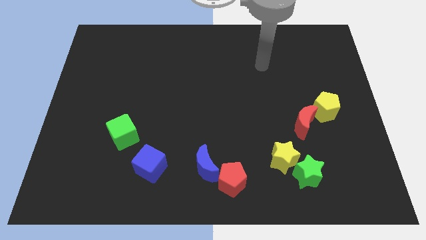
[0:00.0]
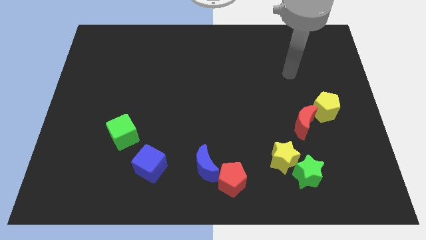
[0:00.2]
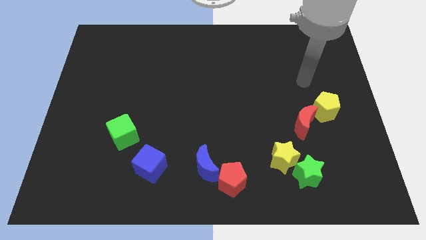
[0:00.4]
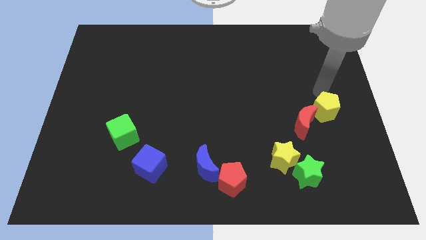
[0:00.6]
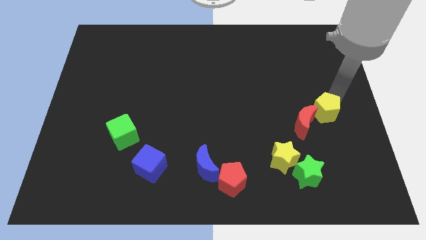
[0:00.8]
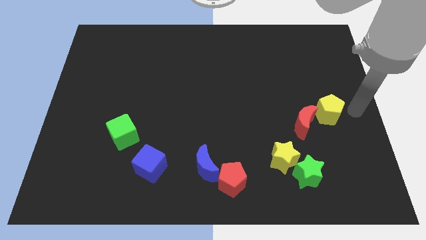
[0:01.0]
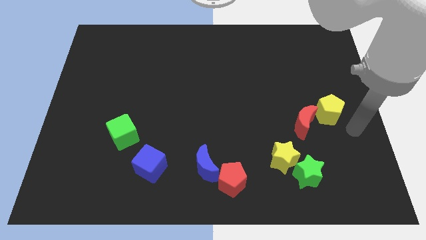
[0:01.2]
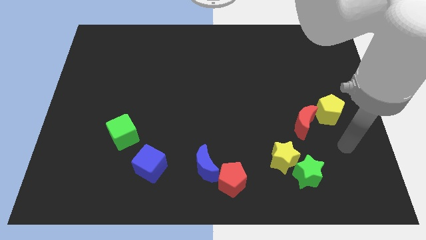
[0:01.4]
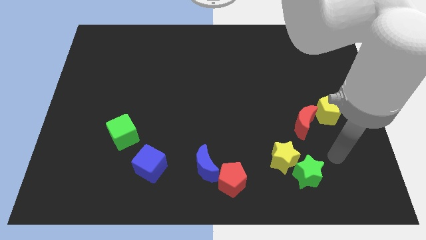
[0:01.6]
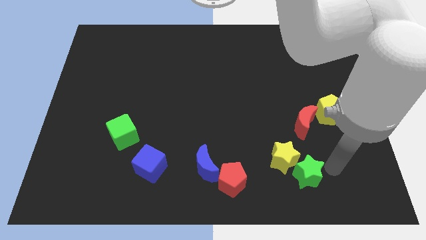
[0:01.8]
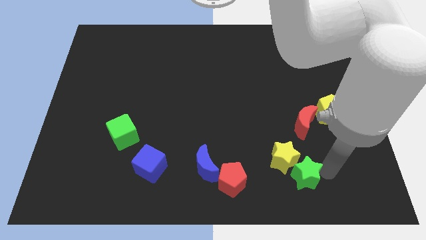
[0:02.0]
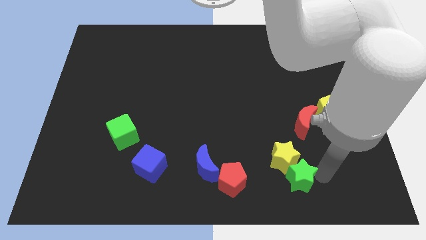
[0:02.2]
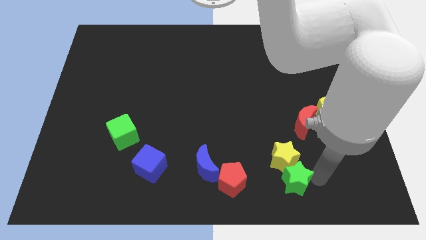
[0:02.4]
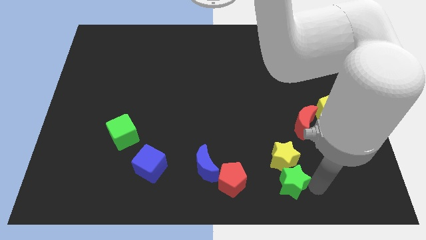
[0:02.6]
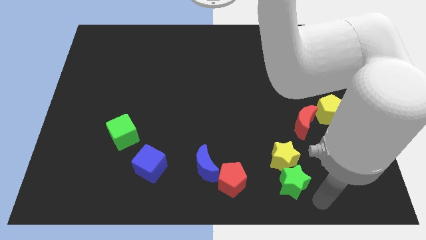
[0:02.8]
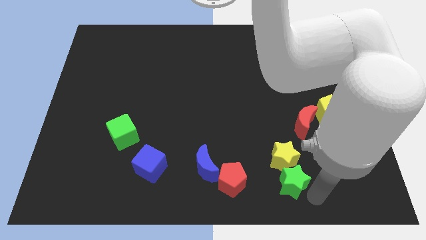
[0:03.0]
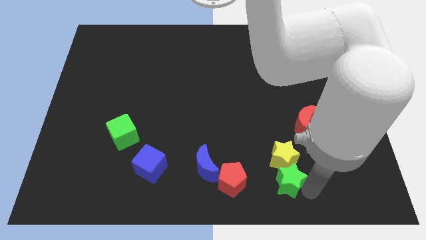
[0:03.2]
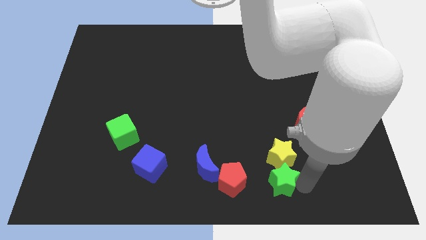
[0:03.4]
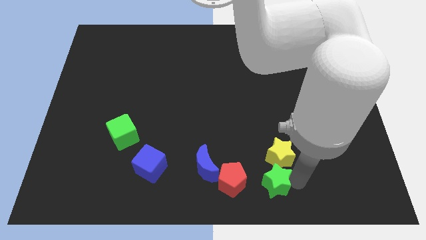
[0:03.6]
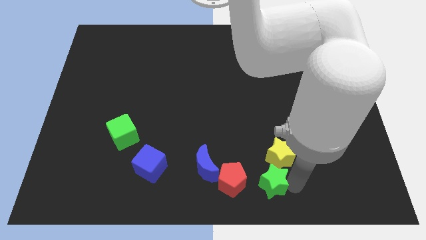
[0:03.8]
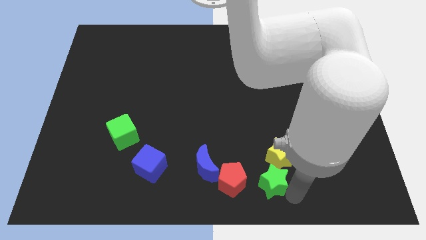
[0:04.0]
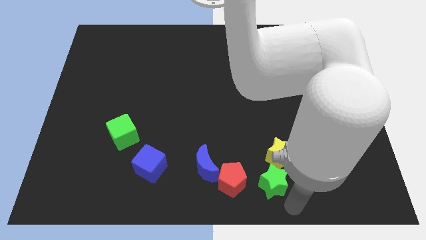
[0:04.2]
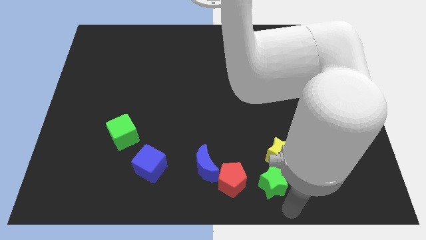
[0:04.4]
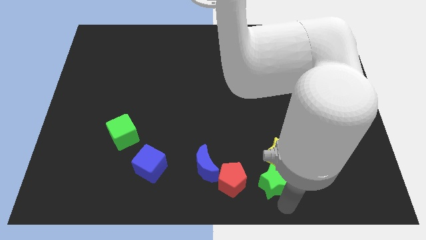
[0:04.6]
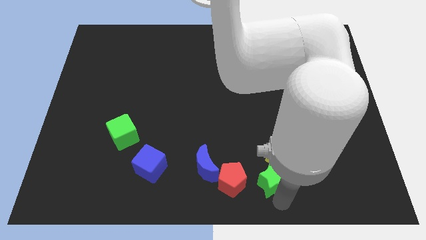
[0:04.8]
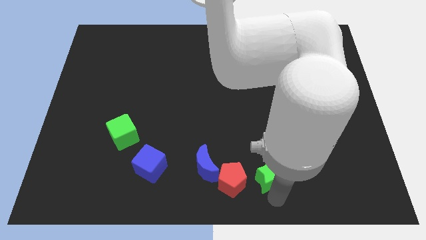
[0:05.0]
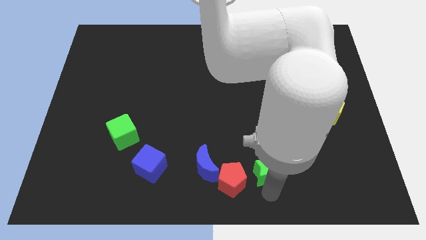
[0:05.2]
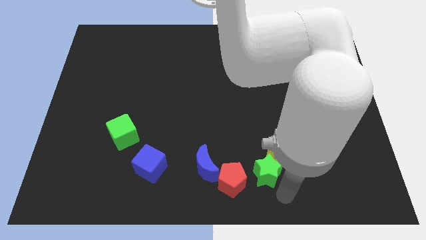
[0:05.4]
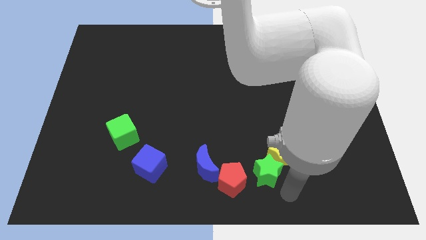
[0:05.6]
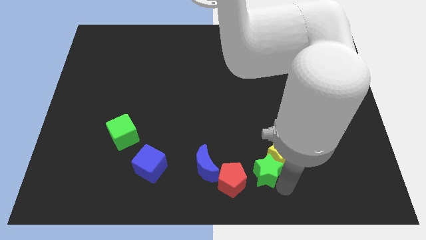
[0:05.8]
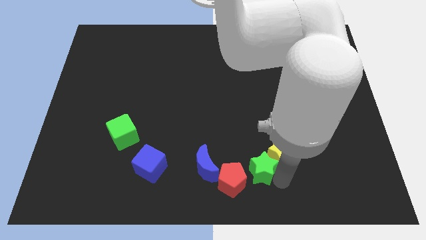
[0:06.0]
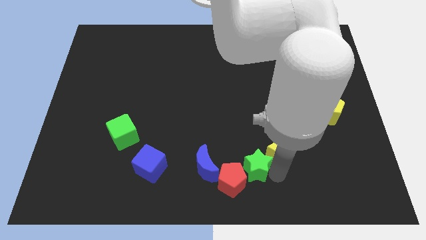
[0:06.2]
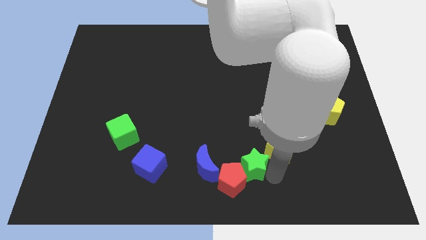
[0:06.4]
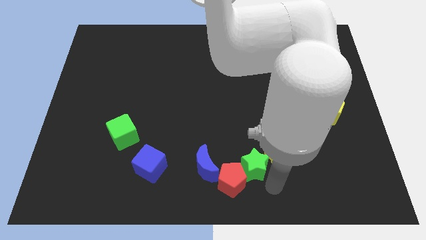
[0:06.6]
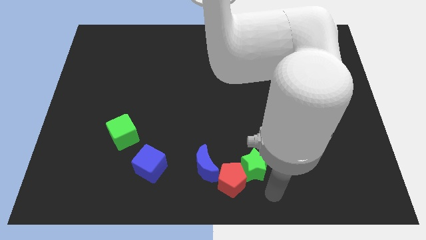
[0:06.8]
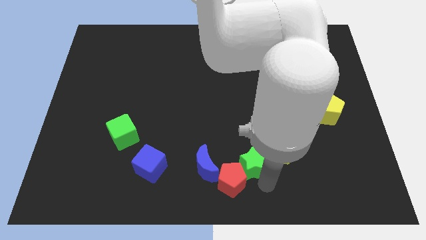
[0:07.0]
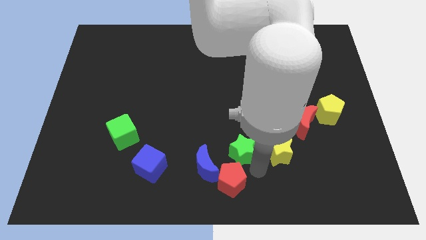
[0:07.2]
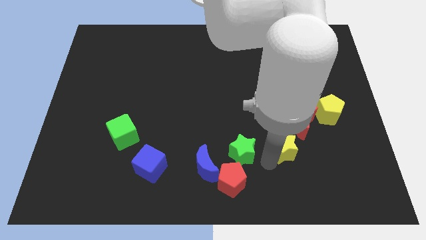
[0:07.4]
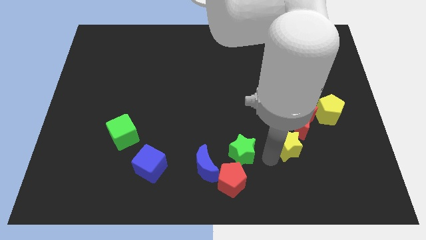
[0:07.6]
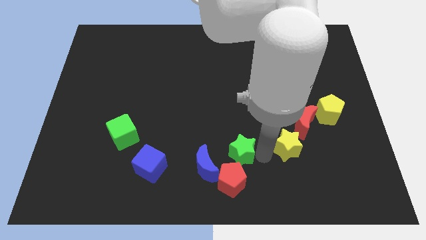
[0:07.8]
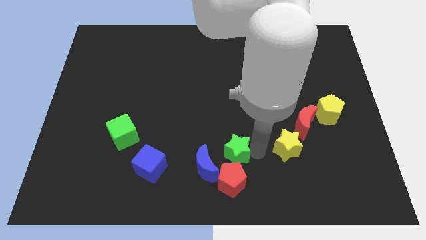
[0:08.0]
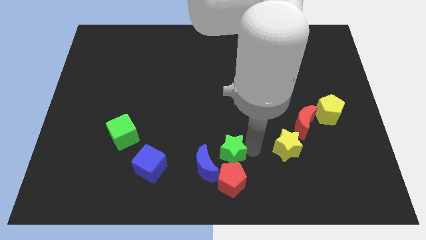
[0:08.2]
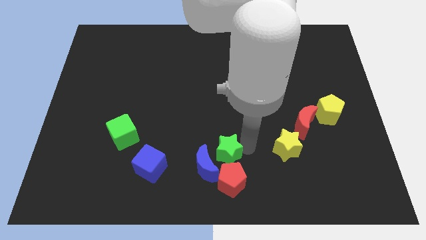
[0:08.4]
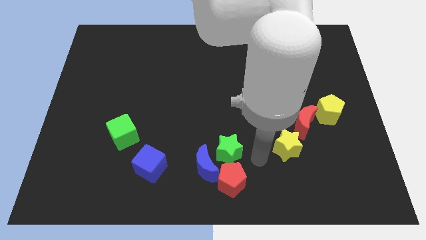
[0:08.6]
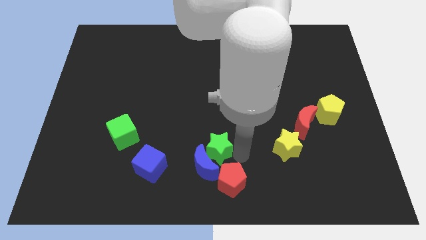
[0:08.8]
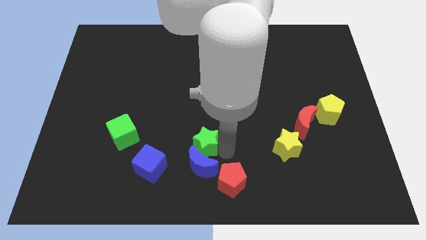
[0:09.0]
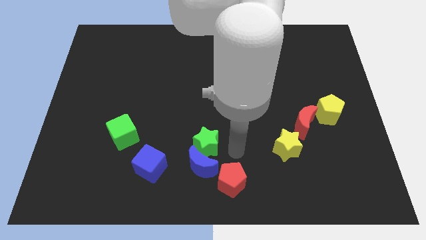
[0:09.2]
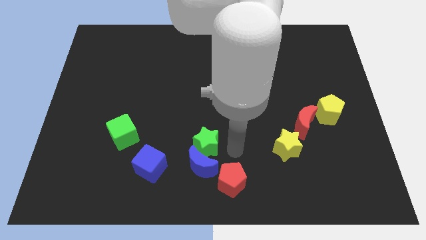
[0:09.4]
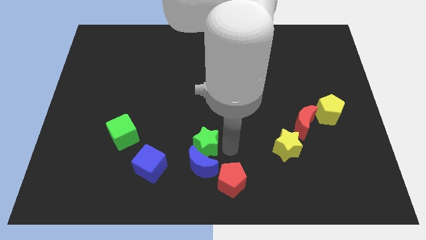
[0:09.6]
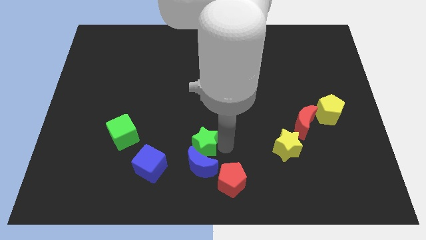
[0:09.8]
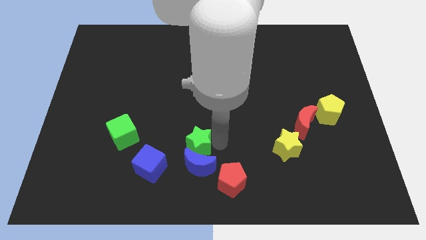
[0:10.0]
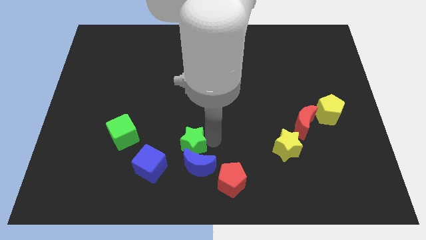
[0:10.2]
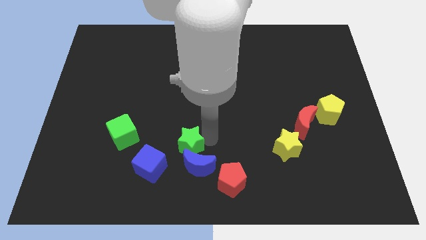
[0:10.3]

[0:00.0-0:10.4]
put the green star just right of the green cube

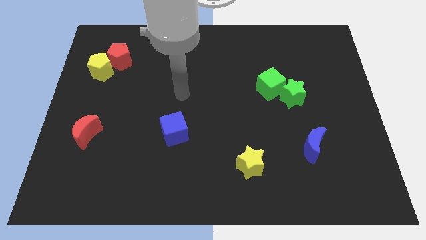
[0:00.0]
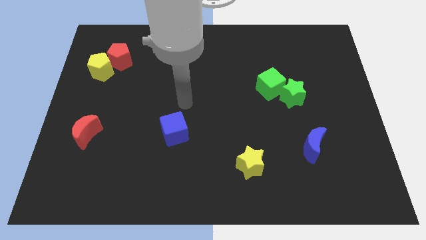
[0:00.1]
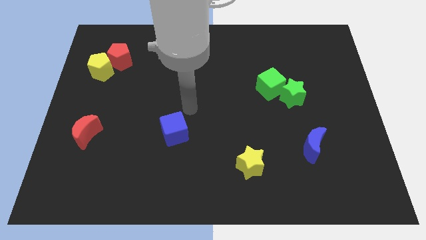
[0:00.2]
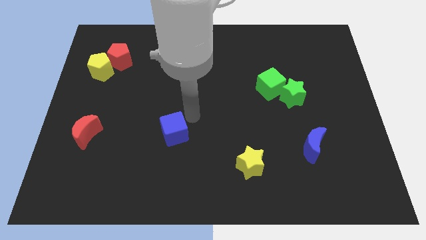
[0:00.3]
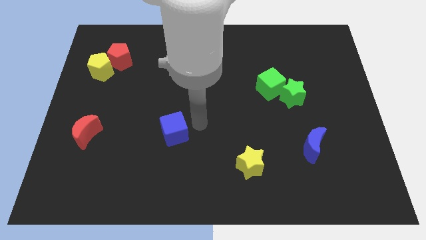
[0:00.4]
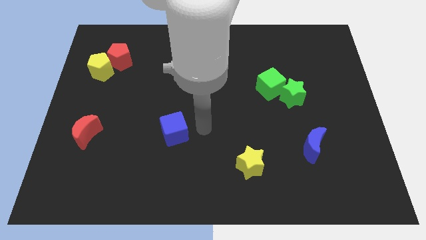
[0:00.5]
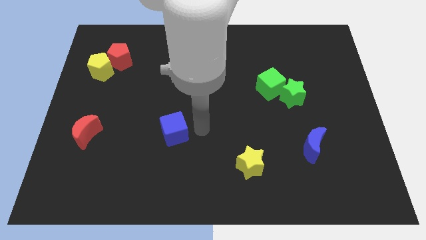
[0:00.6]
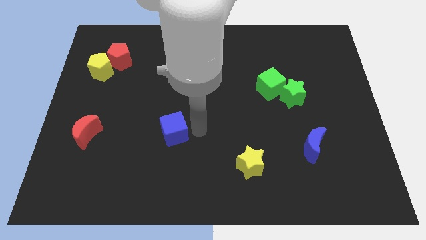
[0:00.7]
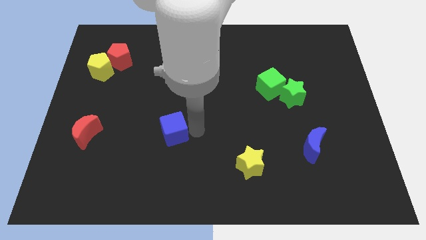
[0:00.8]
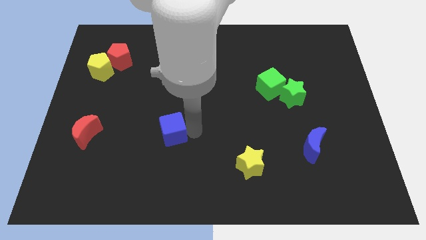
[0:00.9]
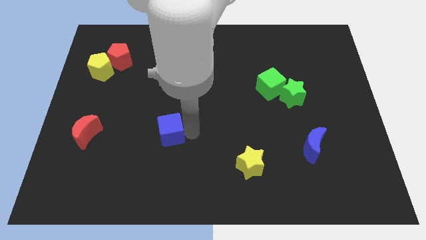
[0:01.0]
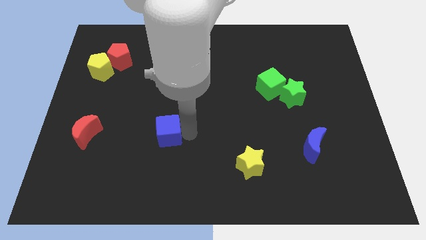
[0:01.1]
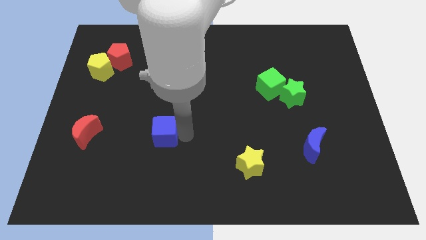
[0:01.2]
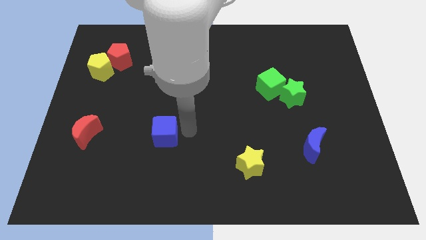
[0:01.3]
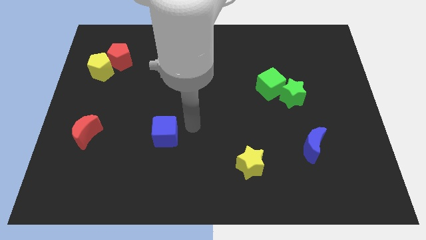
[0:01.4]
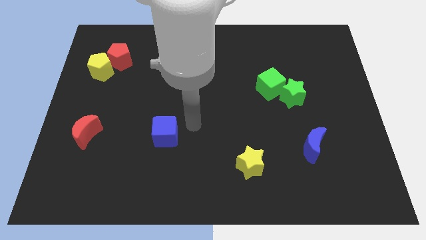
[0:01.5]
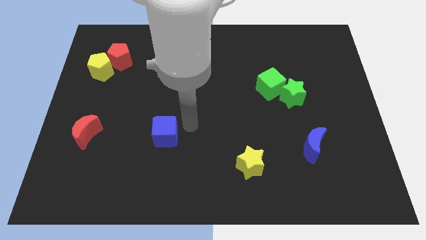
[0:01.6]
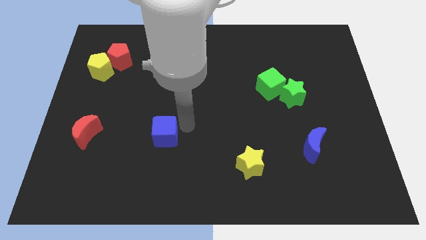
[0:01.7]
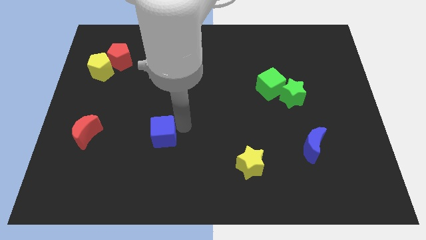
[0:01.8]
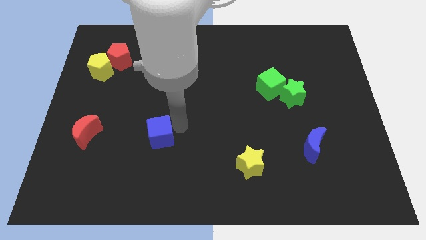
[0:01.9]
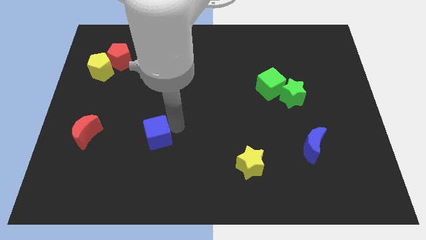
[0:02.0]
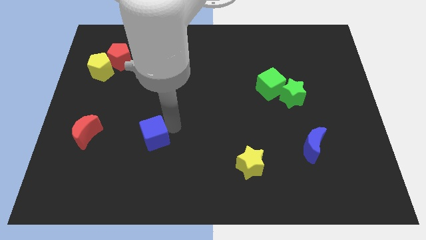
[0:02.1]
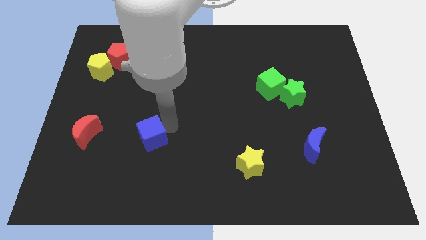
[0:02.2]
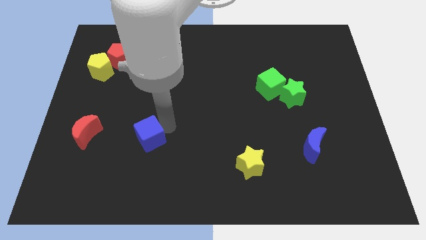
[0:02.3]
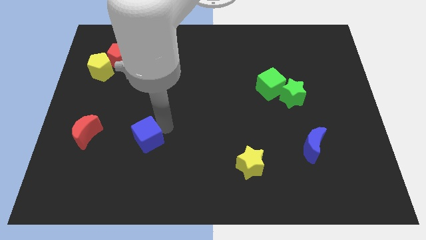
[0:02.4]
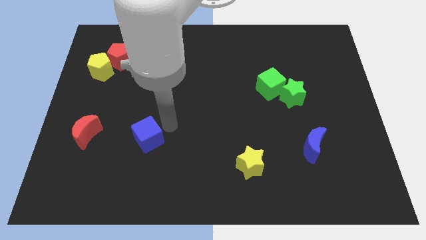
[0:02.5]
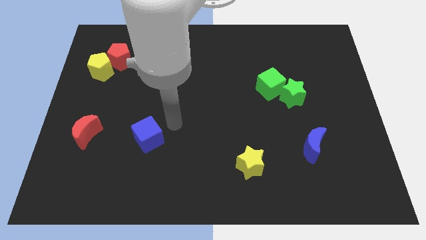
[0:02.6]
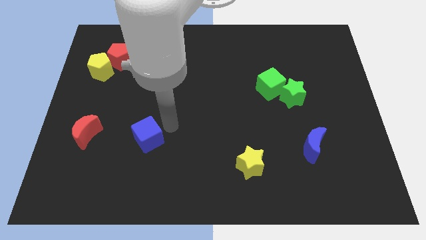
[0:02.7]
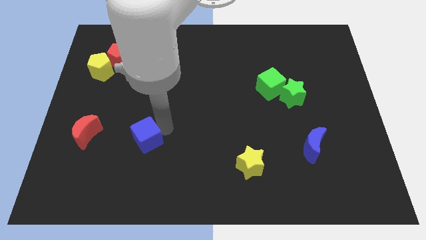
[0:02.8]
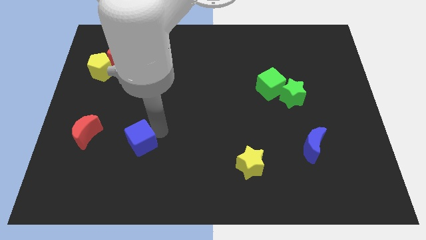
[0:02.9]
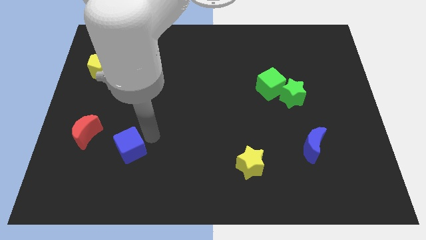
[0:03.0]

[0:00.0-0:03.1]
put the blue cube to the bottom right of the red moon
